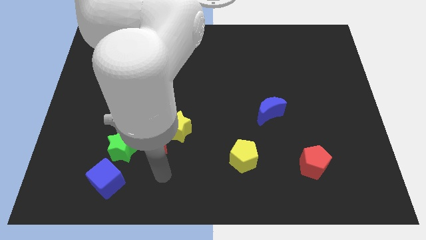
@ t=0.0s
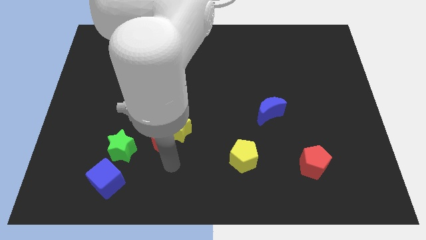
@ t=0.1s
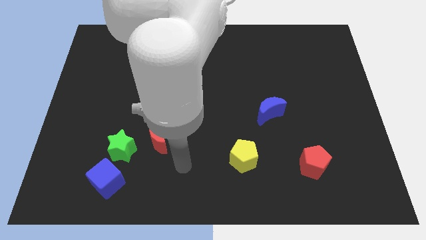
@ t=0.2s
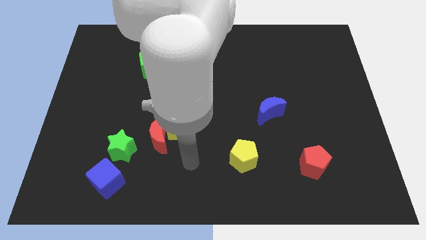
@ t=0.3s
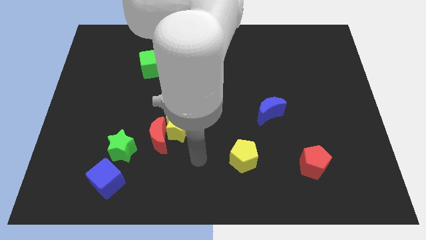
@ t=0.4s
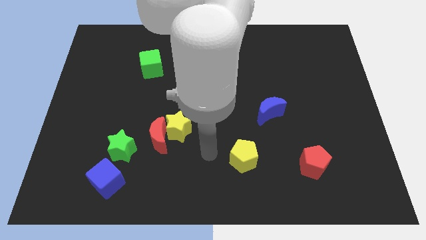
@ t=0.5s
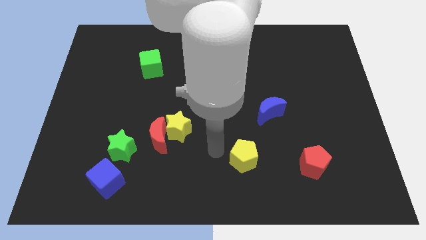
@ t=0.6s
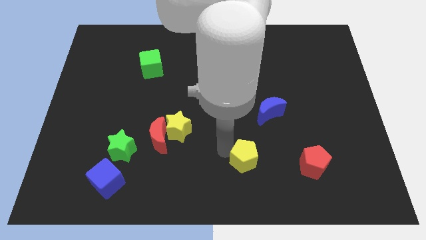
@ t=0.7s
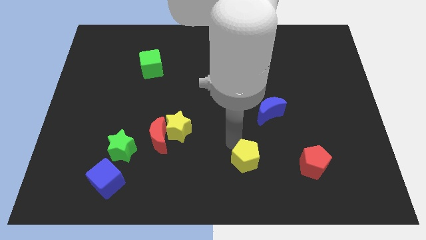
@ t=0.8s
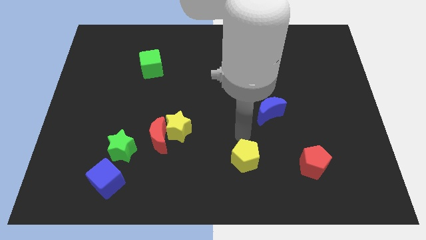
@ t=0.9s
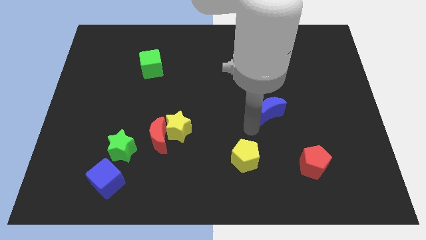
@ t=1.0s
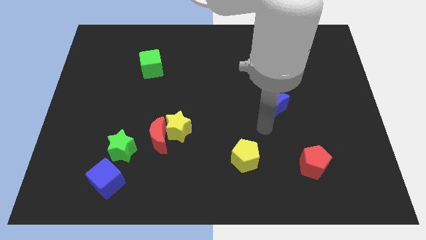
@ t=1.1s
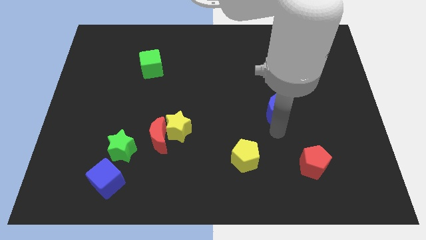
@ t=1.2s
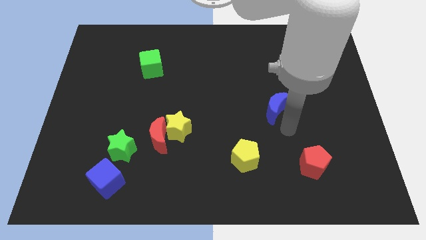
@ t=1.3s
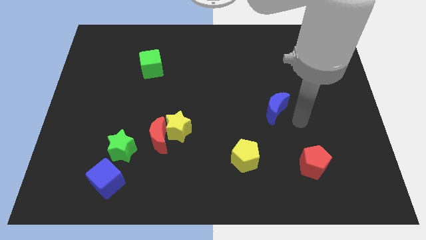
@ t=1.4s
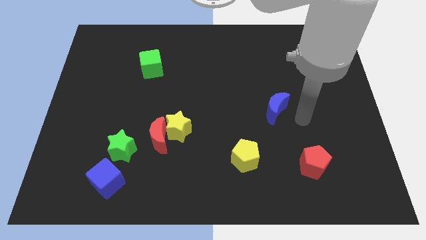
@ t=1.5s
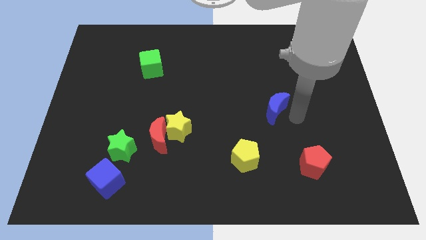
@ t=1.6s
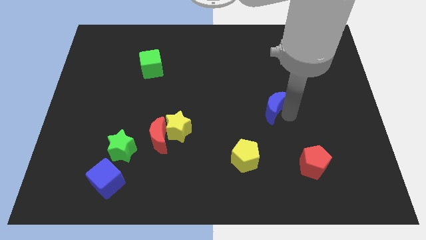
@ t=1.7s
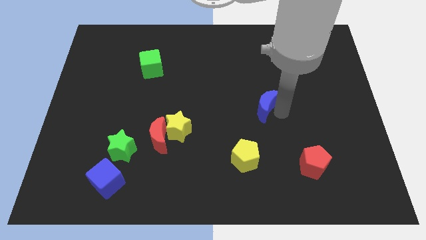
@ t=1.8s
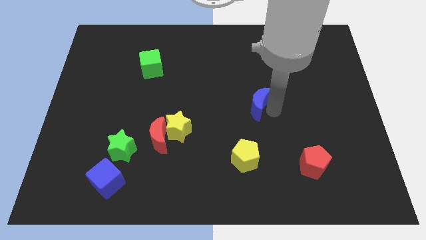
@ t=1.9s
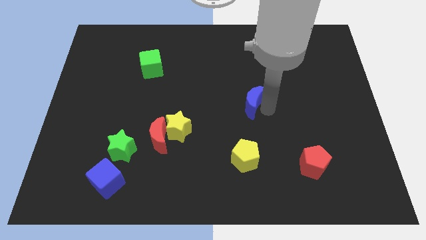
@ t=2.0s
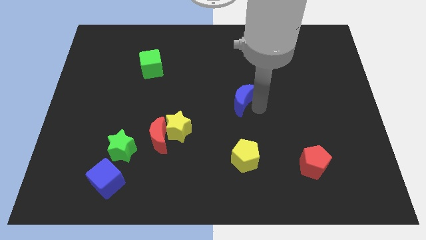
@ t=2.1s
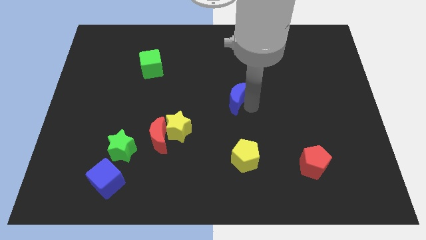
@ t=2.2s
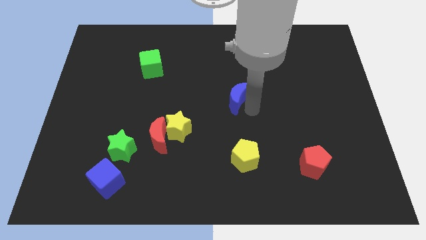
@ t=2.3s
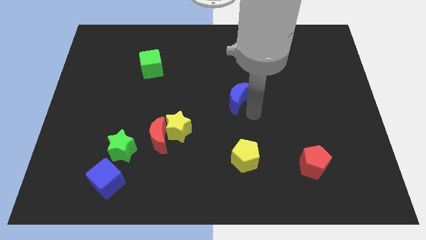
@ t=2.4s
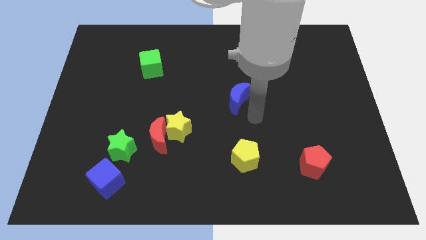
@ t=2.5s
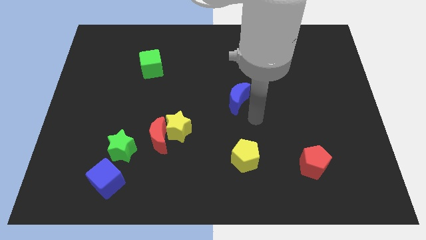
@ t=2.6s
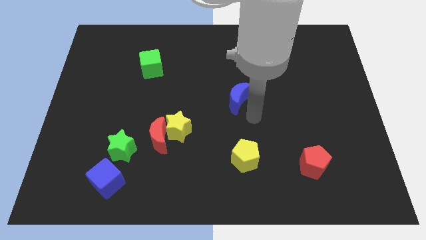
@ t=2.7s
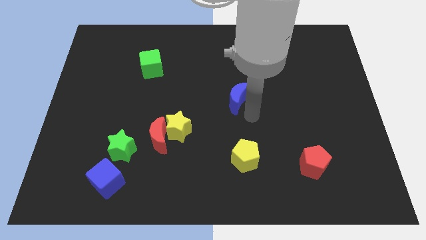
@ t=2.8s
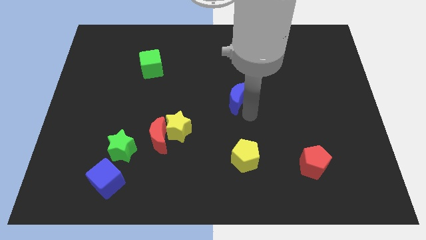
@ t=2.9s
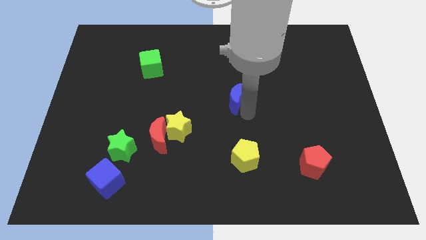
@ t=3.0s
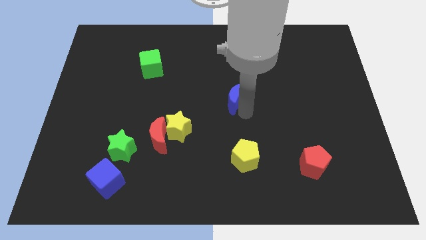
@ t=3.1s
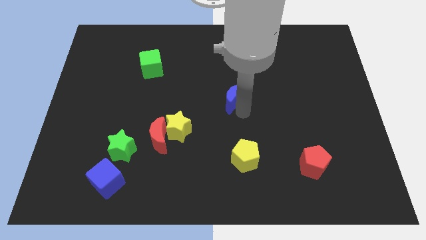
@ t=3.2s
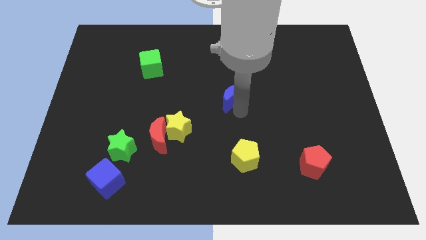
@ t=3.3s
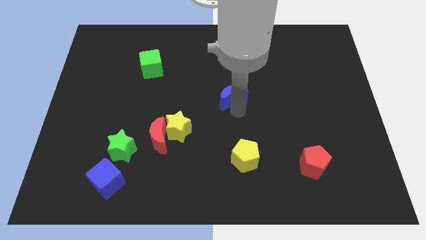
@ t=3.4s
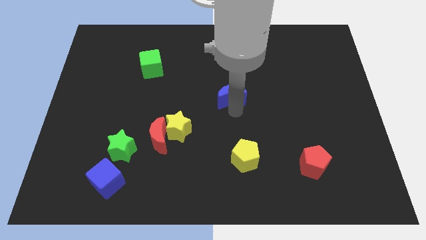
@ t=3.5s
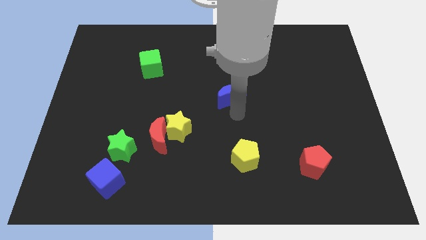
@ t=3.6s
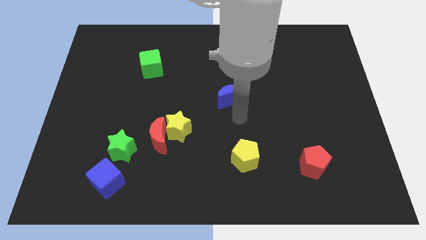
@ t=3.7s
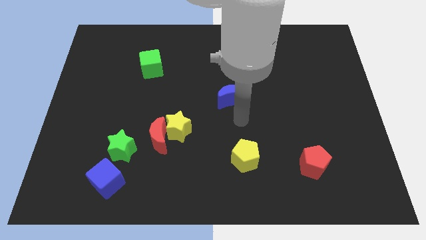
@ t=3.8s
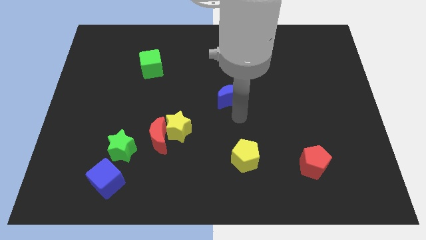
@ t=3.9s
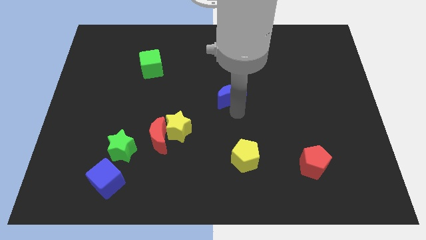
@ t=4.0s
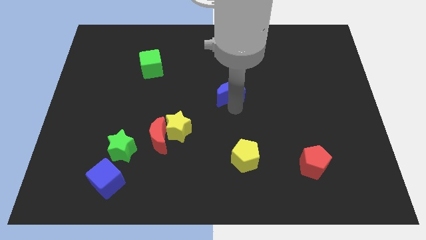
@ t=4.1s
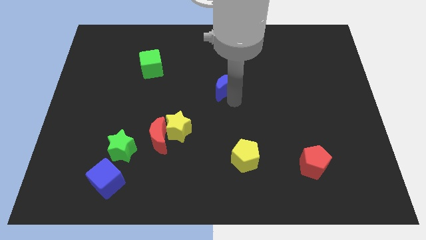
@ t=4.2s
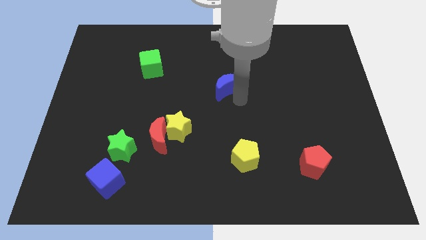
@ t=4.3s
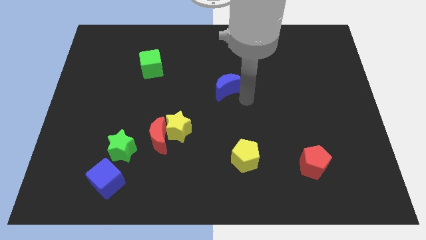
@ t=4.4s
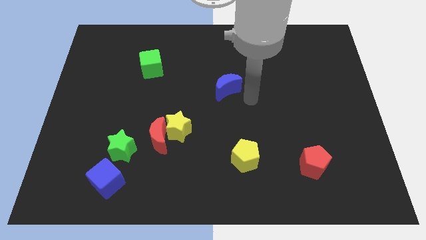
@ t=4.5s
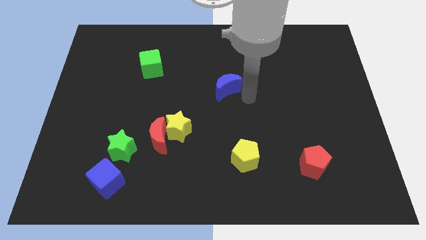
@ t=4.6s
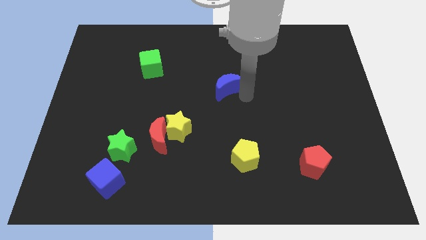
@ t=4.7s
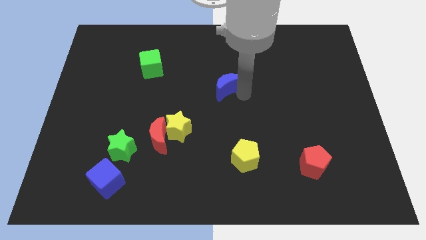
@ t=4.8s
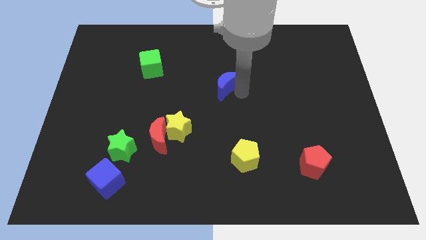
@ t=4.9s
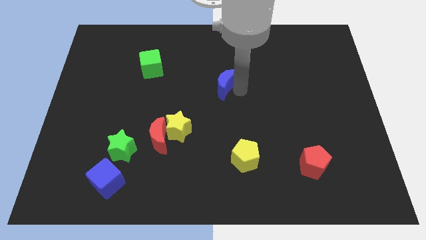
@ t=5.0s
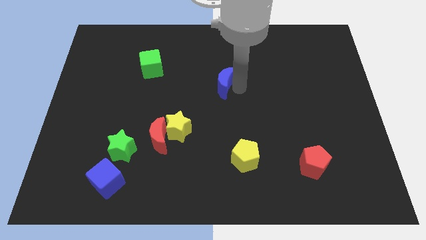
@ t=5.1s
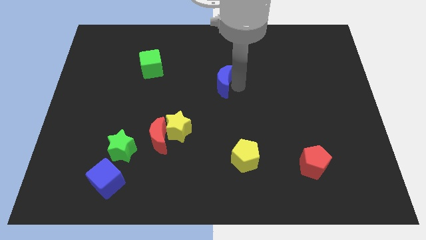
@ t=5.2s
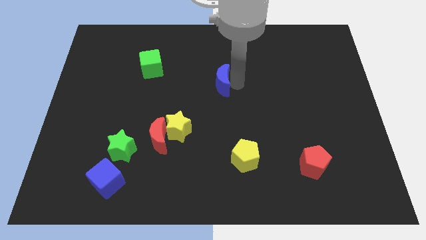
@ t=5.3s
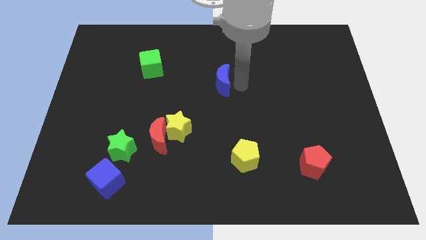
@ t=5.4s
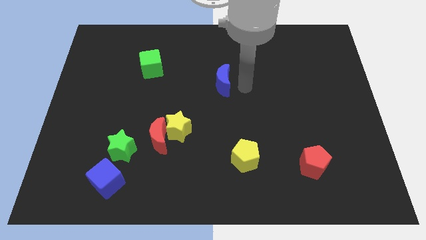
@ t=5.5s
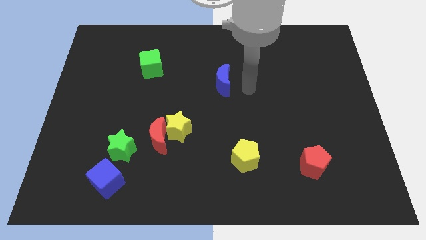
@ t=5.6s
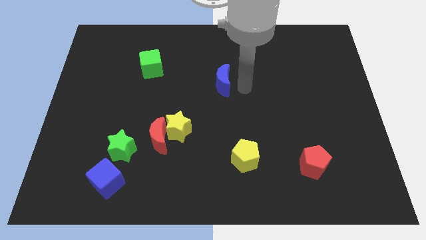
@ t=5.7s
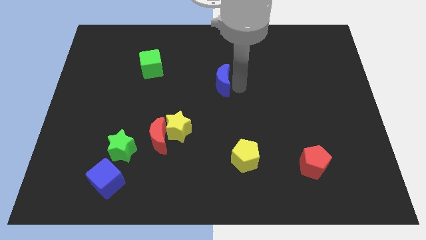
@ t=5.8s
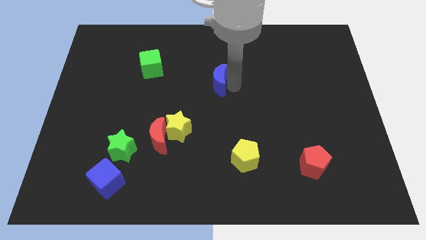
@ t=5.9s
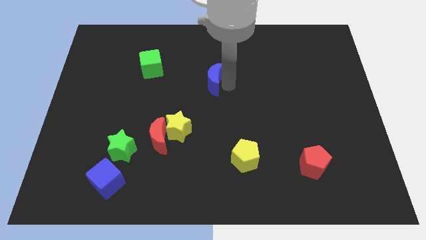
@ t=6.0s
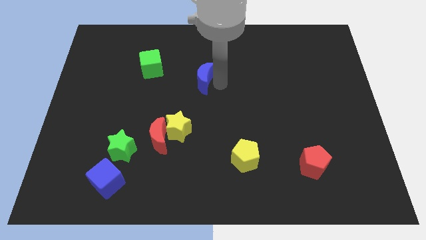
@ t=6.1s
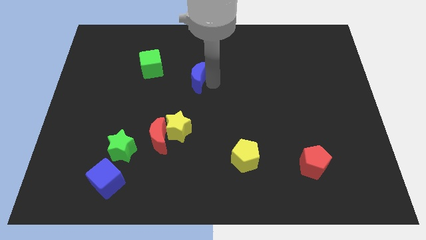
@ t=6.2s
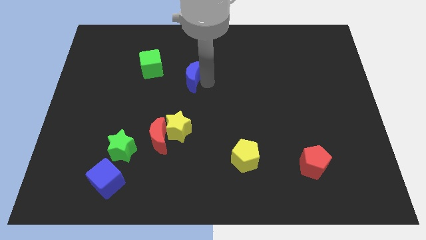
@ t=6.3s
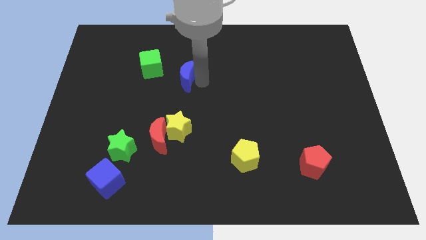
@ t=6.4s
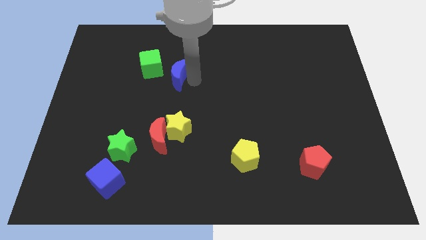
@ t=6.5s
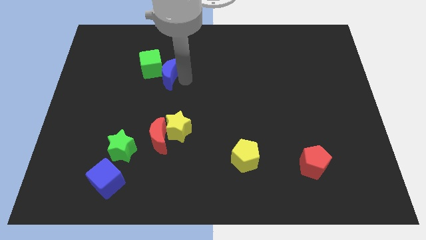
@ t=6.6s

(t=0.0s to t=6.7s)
slide the blue moon close to the green cube
